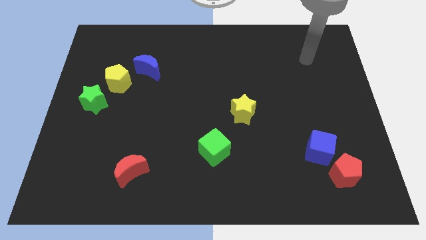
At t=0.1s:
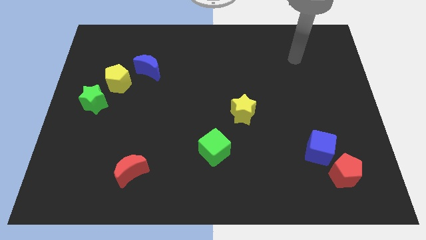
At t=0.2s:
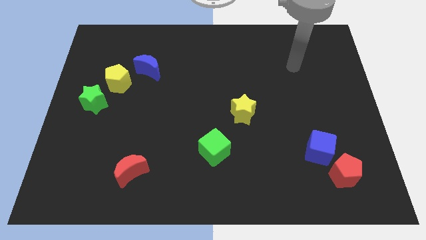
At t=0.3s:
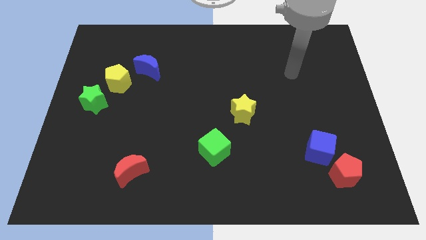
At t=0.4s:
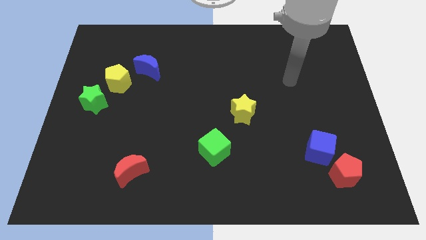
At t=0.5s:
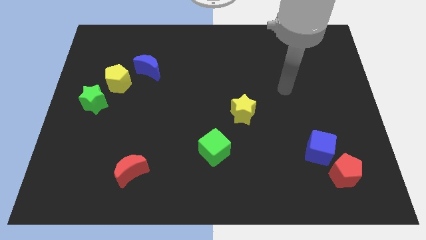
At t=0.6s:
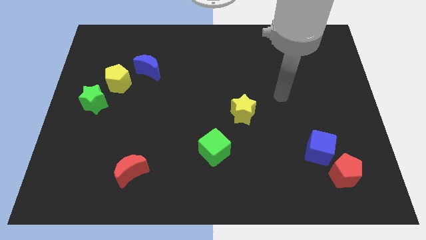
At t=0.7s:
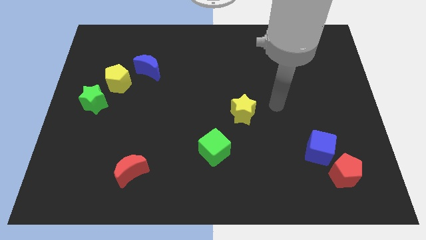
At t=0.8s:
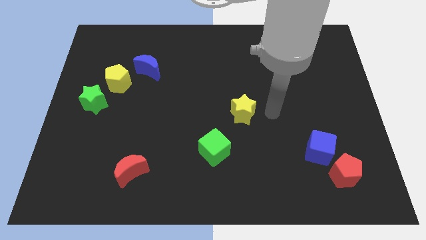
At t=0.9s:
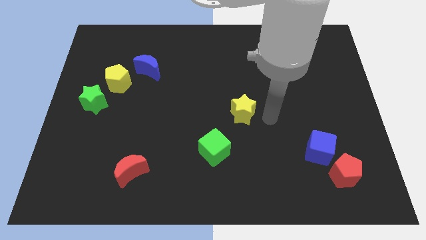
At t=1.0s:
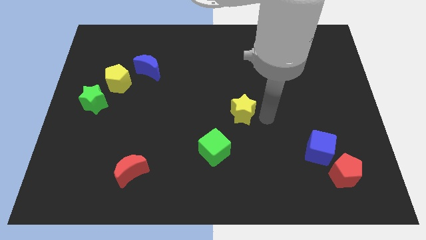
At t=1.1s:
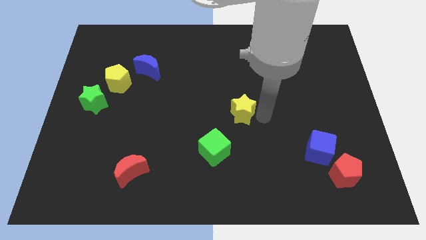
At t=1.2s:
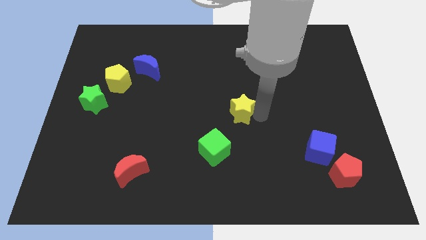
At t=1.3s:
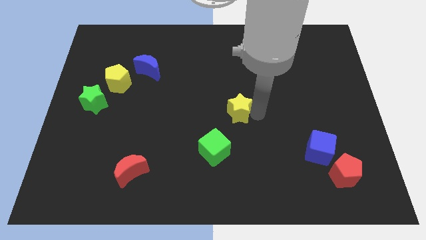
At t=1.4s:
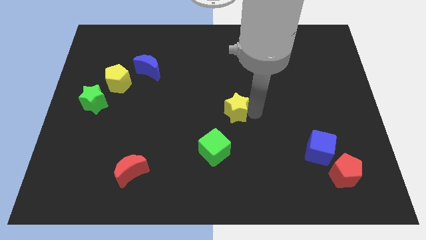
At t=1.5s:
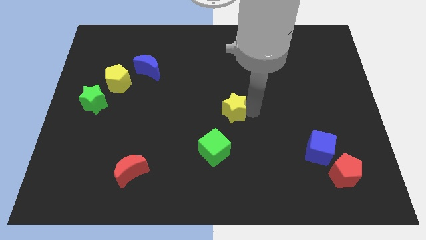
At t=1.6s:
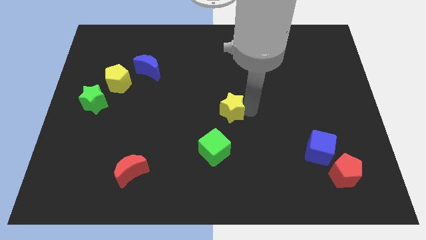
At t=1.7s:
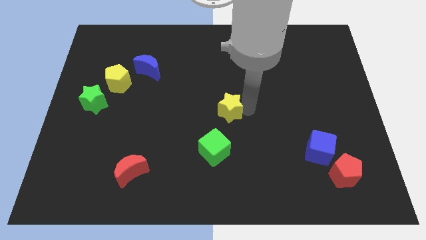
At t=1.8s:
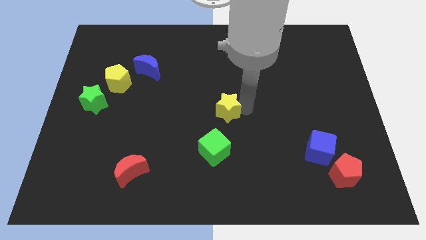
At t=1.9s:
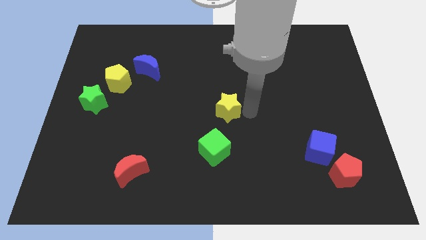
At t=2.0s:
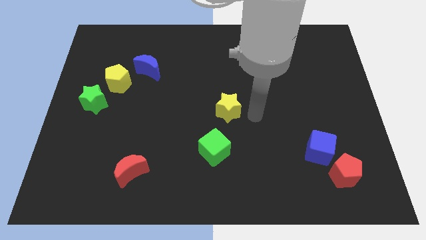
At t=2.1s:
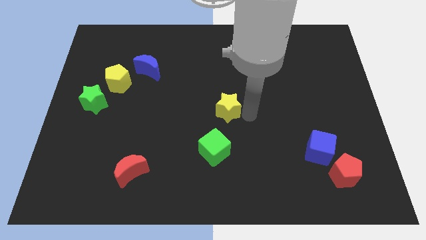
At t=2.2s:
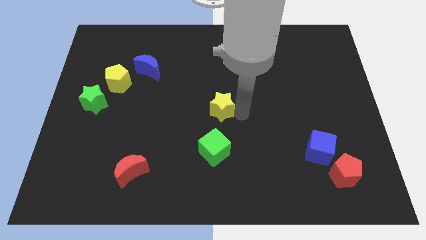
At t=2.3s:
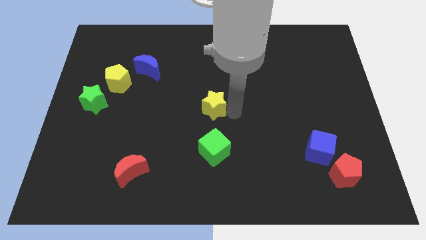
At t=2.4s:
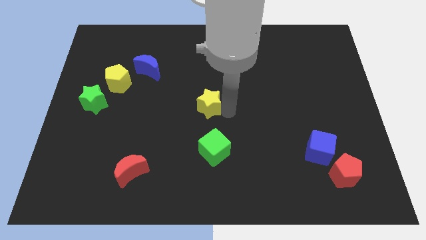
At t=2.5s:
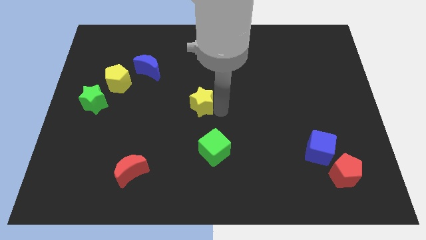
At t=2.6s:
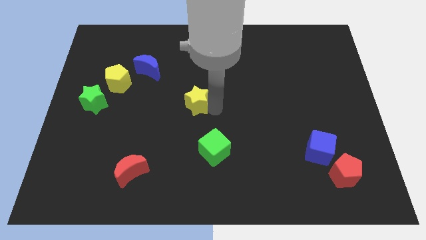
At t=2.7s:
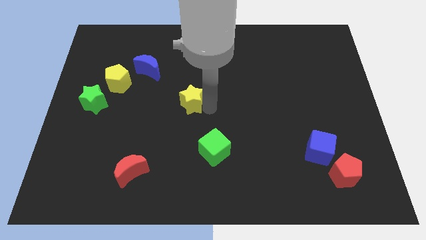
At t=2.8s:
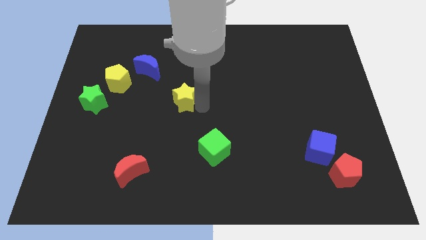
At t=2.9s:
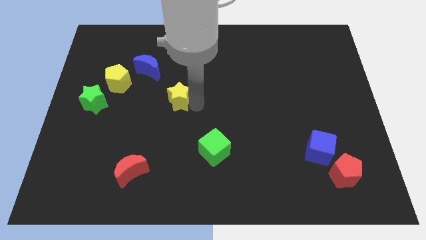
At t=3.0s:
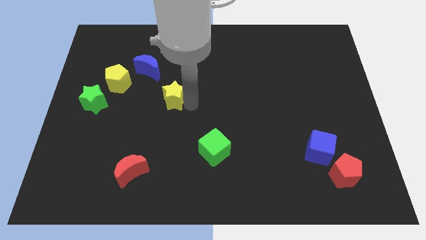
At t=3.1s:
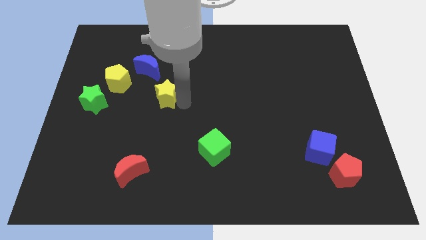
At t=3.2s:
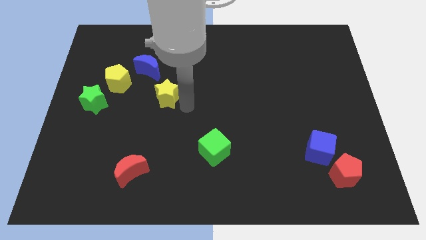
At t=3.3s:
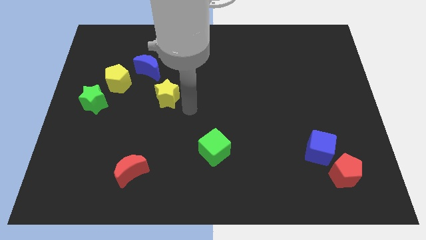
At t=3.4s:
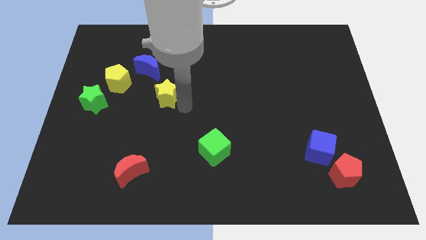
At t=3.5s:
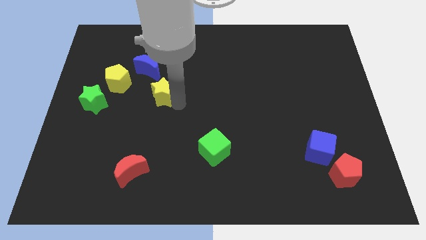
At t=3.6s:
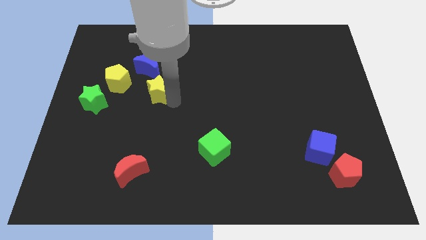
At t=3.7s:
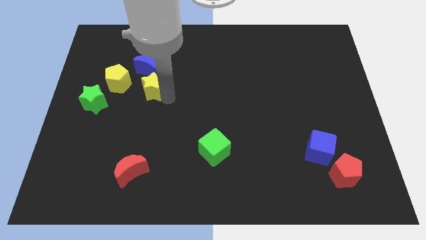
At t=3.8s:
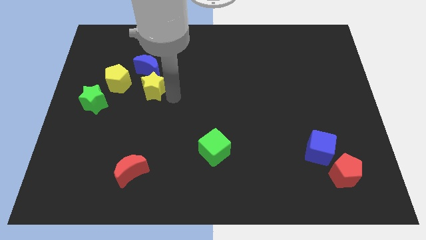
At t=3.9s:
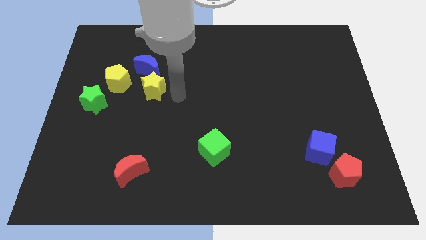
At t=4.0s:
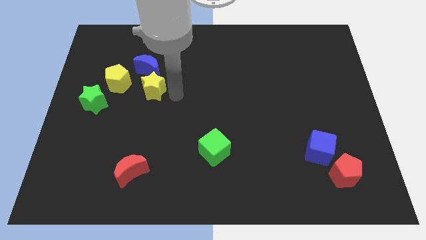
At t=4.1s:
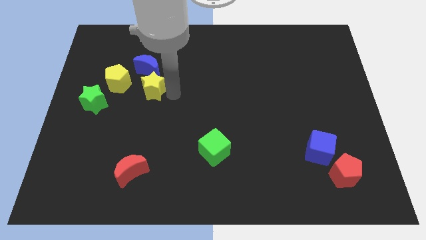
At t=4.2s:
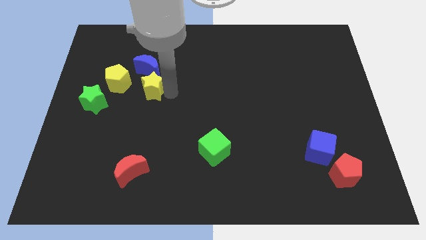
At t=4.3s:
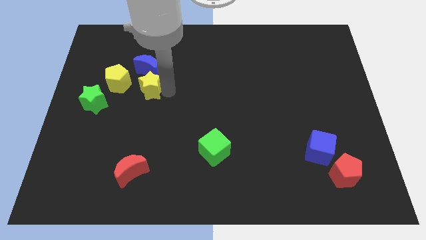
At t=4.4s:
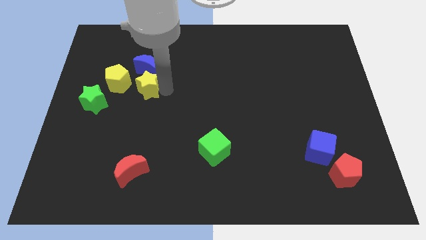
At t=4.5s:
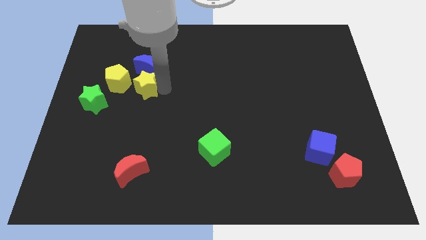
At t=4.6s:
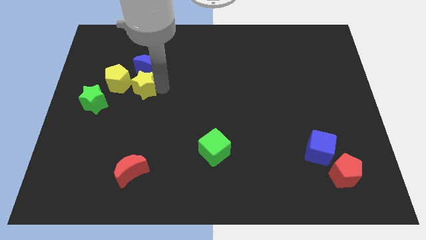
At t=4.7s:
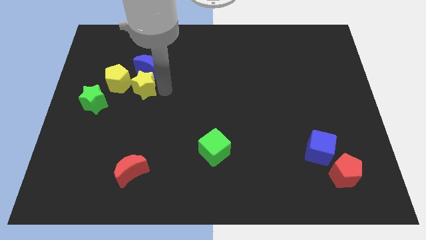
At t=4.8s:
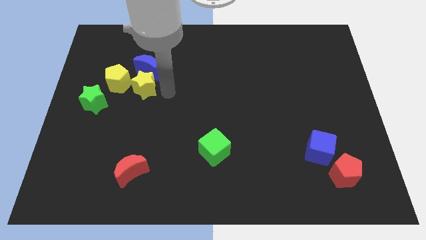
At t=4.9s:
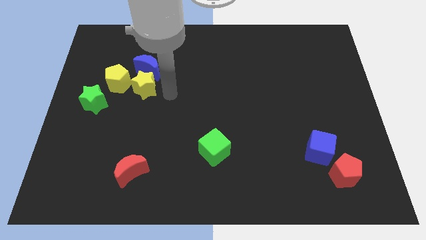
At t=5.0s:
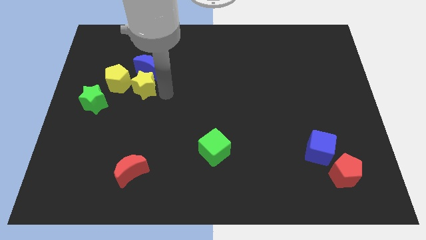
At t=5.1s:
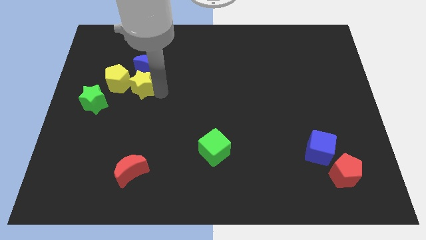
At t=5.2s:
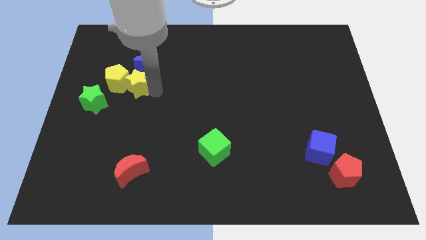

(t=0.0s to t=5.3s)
push the yellow star towards the yellow pentagon

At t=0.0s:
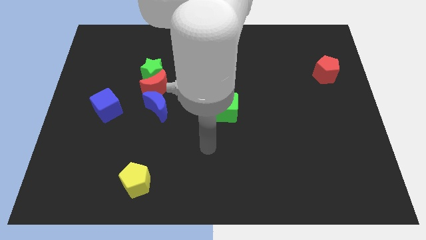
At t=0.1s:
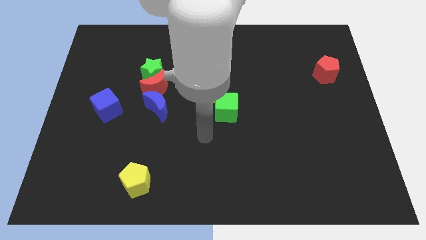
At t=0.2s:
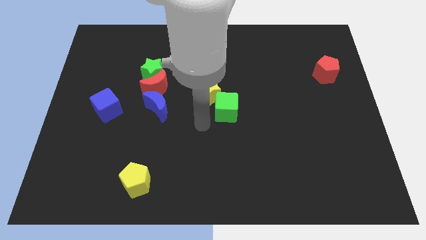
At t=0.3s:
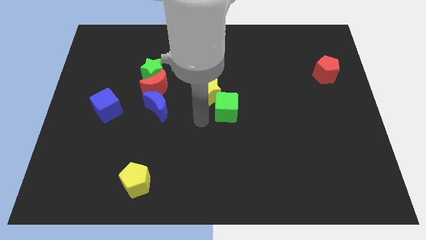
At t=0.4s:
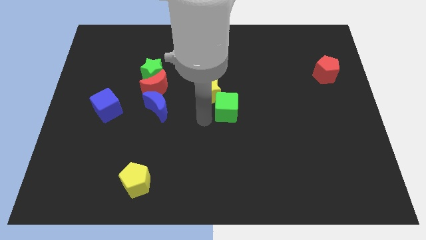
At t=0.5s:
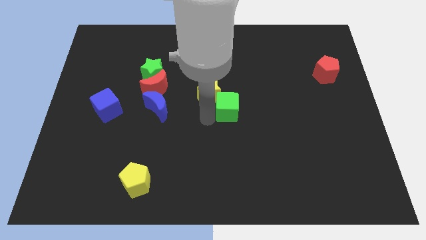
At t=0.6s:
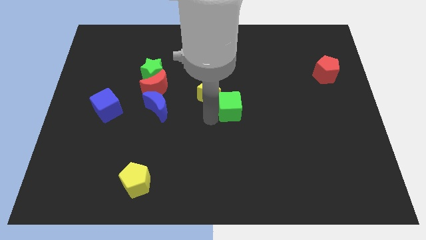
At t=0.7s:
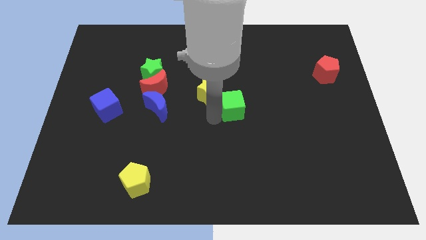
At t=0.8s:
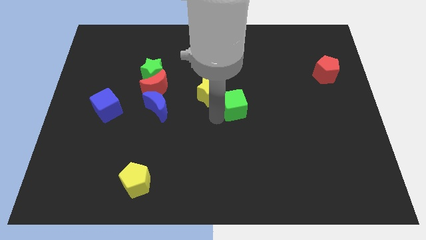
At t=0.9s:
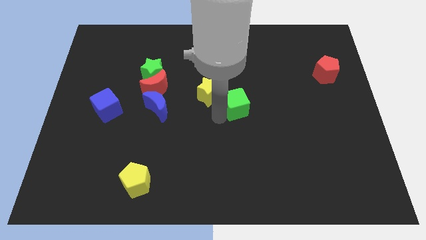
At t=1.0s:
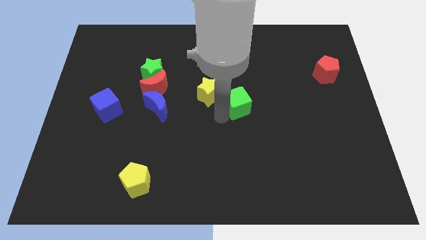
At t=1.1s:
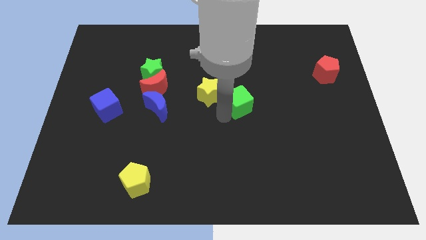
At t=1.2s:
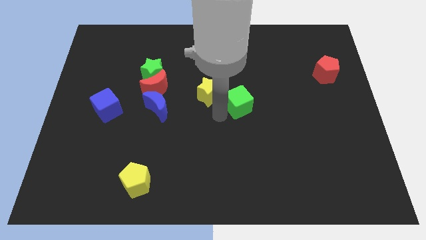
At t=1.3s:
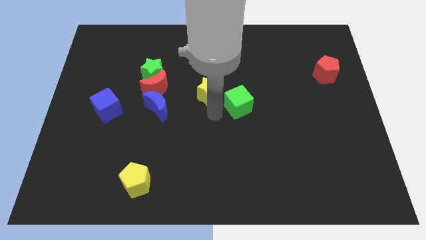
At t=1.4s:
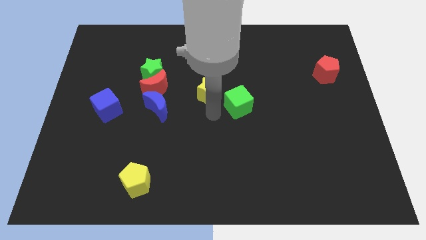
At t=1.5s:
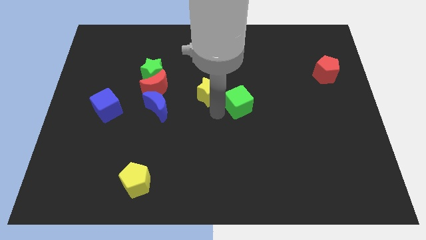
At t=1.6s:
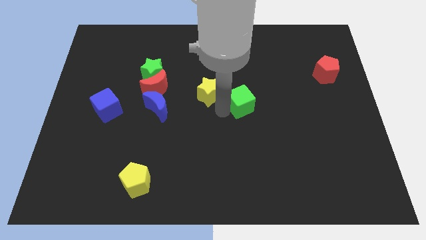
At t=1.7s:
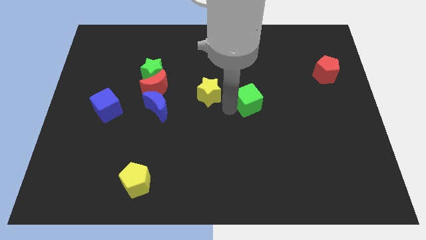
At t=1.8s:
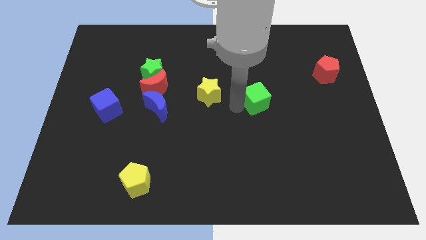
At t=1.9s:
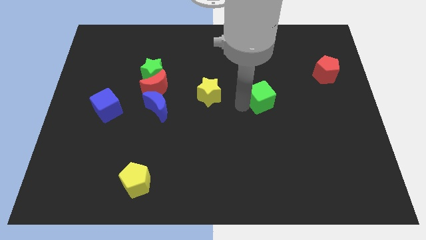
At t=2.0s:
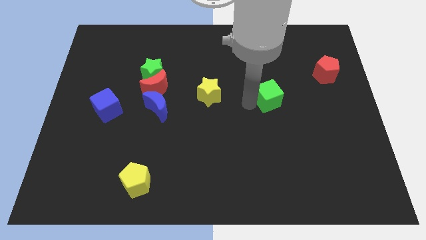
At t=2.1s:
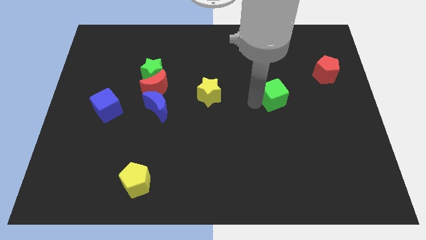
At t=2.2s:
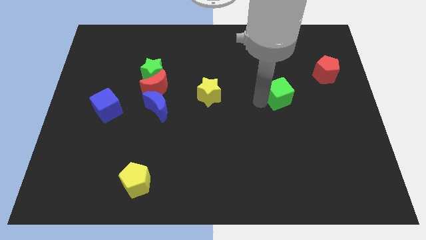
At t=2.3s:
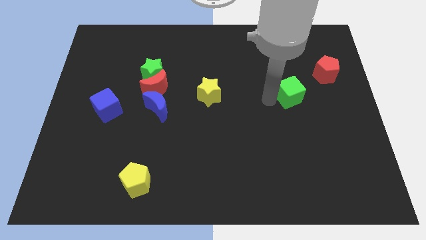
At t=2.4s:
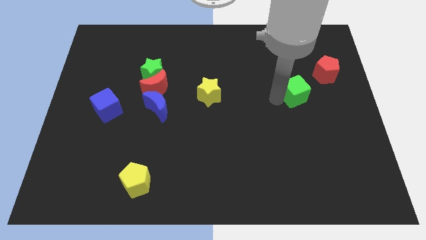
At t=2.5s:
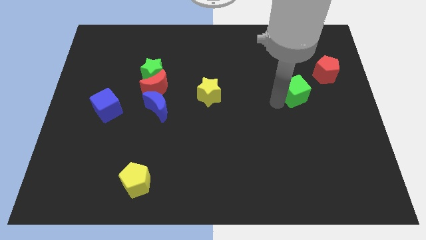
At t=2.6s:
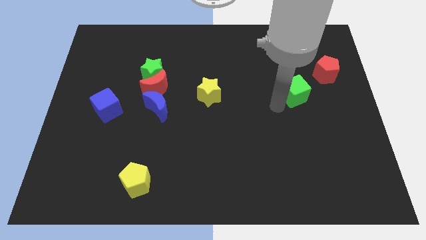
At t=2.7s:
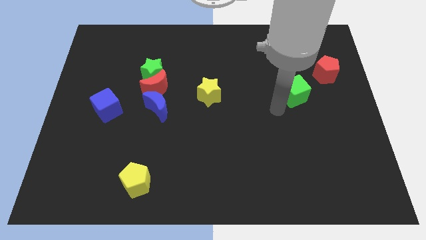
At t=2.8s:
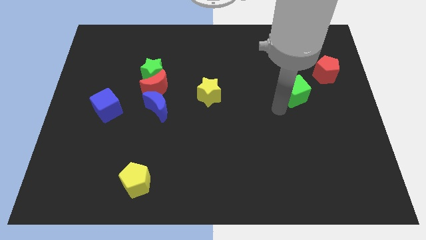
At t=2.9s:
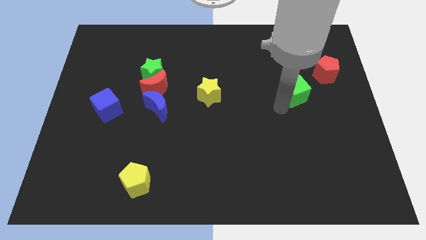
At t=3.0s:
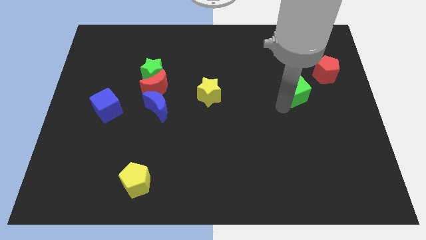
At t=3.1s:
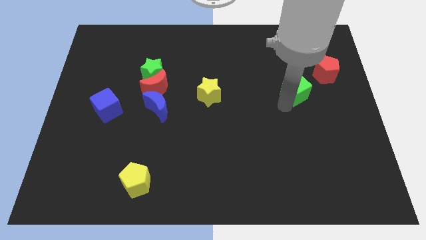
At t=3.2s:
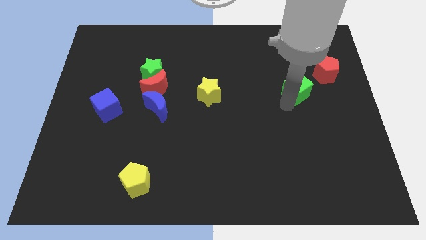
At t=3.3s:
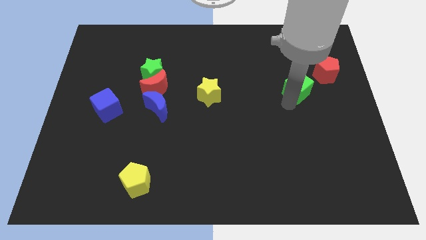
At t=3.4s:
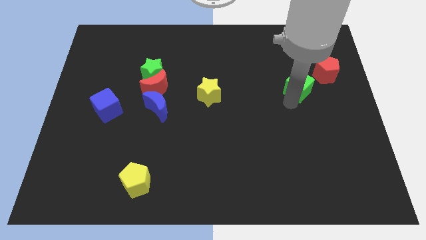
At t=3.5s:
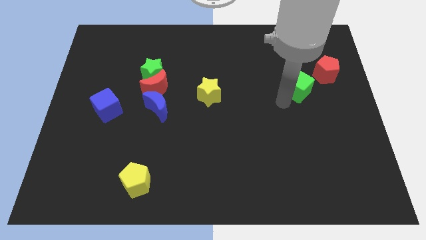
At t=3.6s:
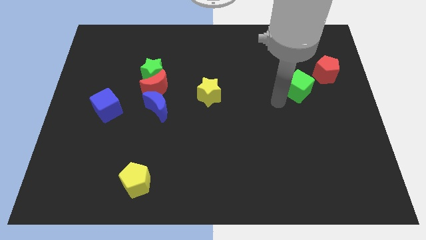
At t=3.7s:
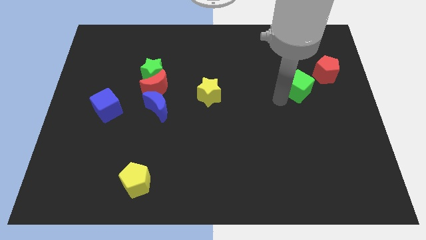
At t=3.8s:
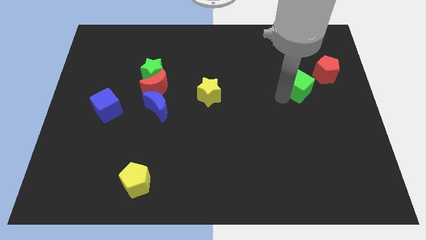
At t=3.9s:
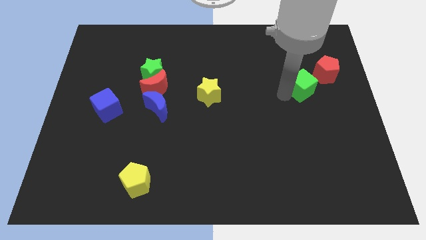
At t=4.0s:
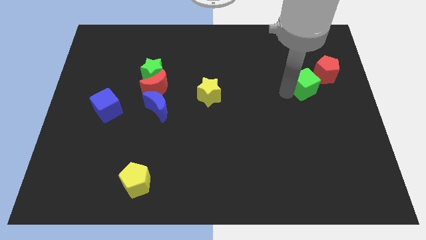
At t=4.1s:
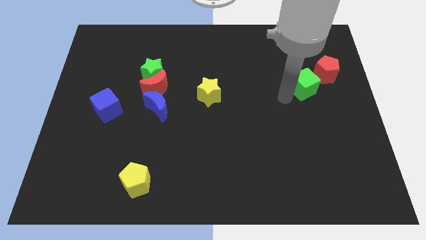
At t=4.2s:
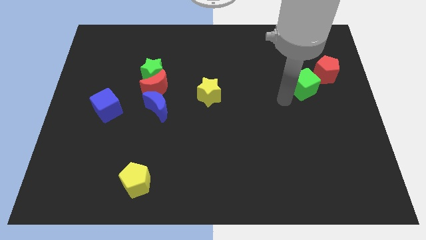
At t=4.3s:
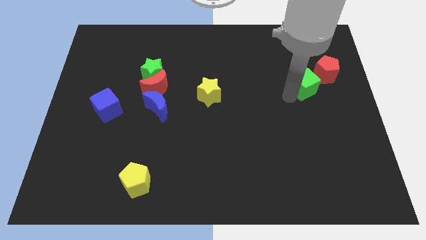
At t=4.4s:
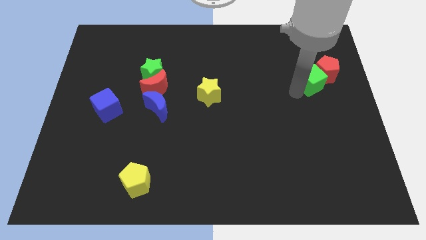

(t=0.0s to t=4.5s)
slide the green cube next to the red pentagon
